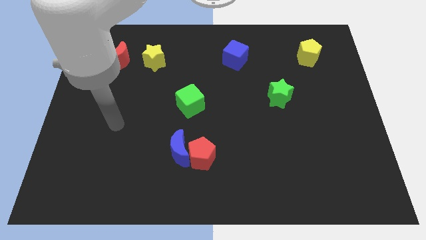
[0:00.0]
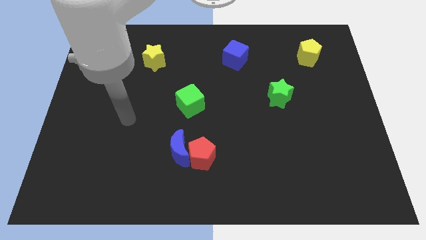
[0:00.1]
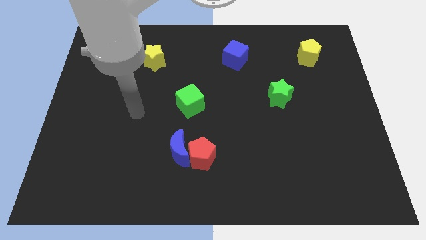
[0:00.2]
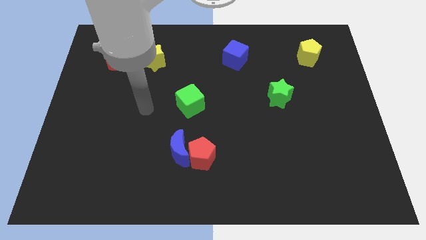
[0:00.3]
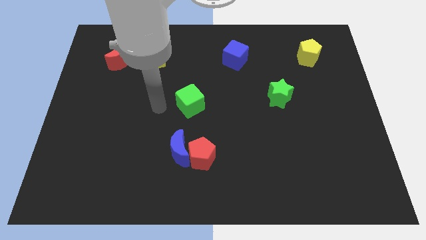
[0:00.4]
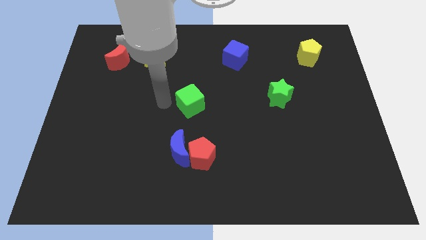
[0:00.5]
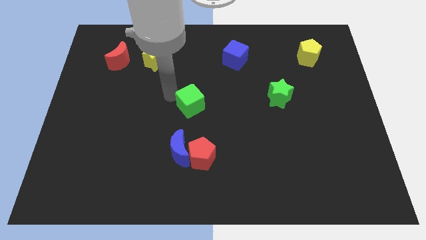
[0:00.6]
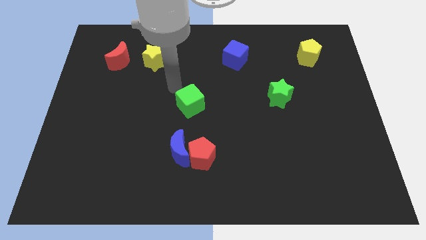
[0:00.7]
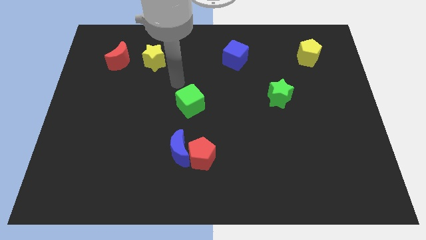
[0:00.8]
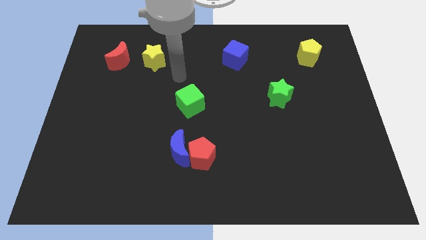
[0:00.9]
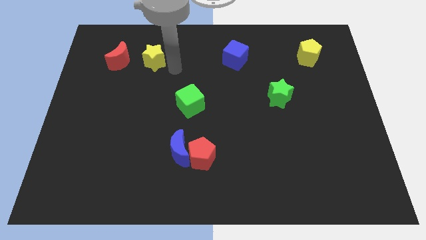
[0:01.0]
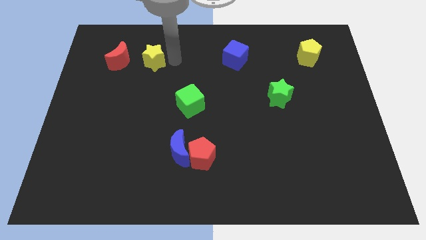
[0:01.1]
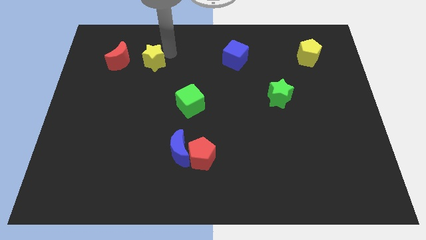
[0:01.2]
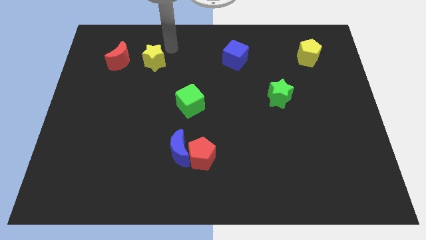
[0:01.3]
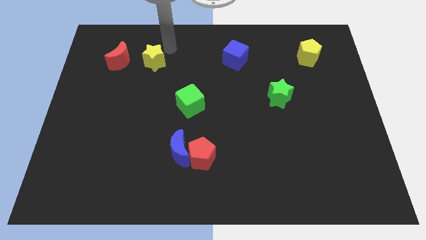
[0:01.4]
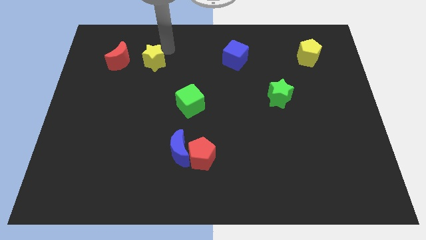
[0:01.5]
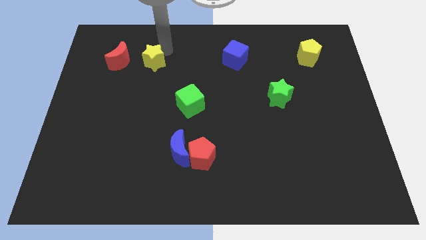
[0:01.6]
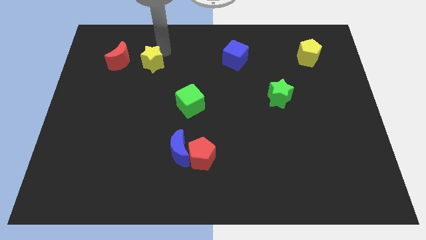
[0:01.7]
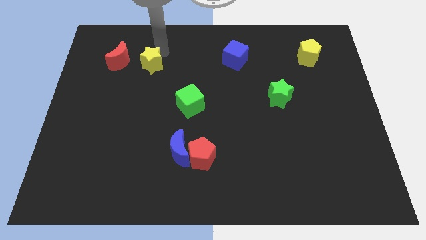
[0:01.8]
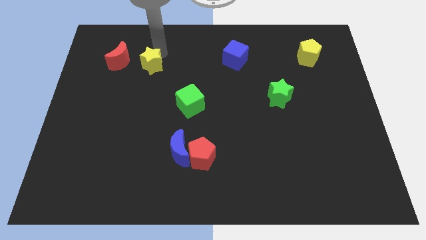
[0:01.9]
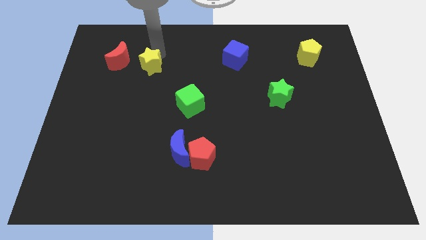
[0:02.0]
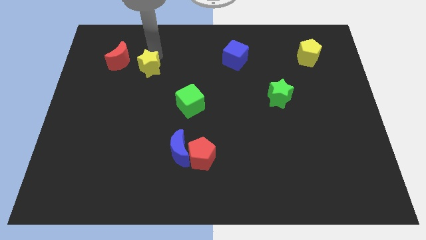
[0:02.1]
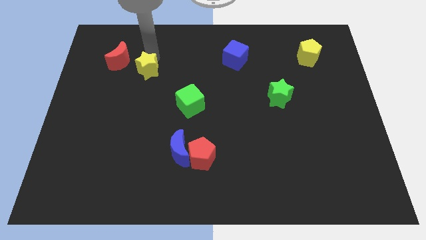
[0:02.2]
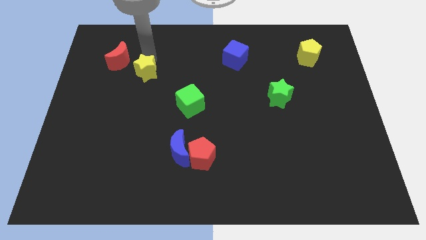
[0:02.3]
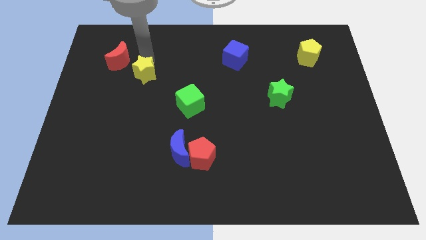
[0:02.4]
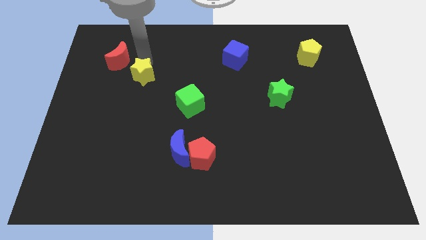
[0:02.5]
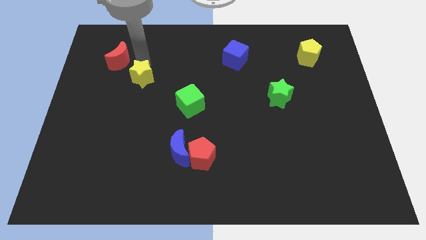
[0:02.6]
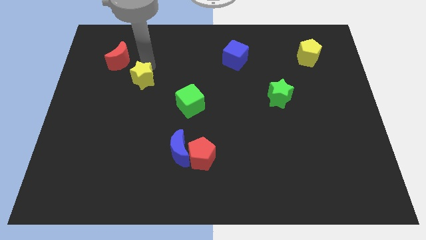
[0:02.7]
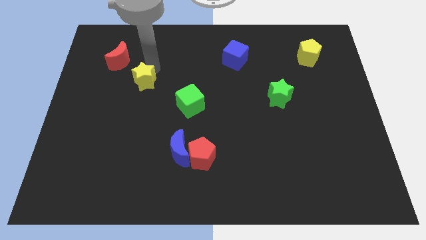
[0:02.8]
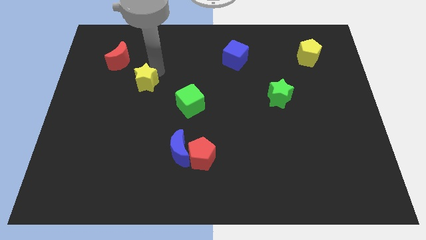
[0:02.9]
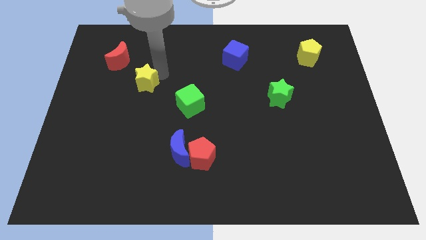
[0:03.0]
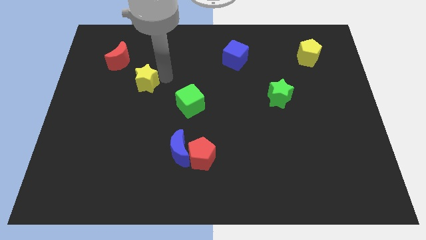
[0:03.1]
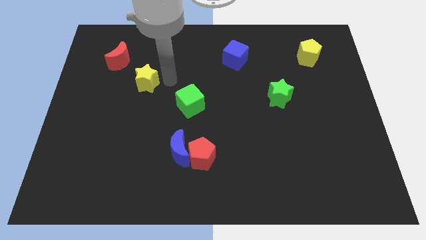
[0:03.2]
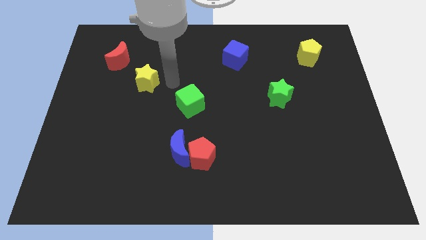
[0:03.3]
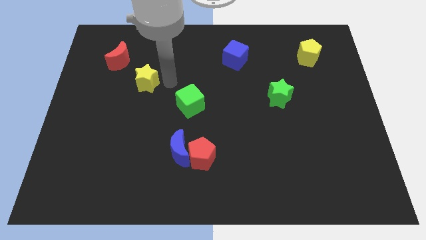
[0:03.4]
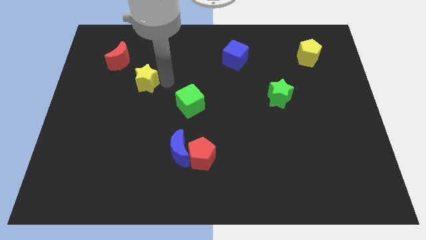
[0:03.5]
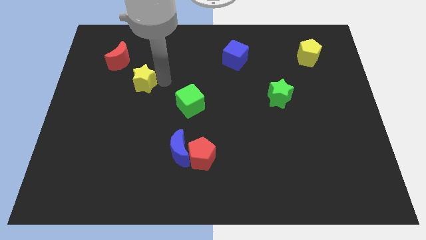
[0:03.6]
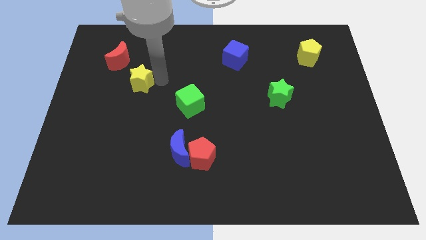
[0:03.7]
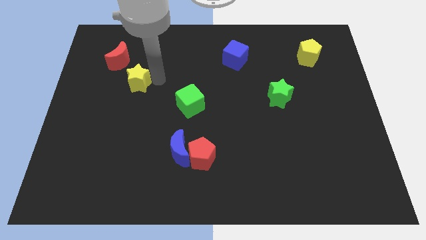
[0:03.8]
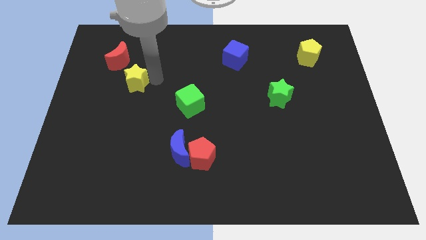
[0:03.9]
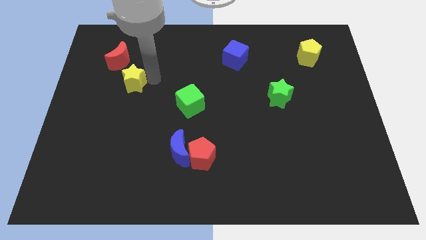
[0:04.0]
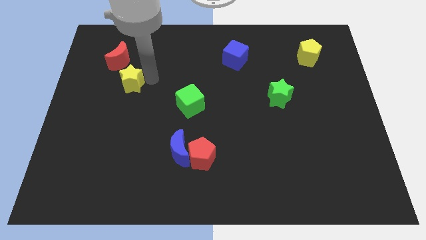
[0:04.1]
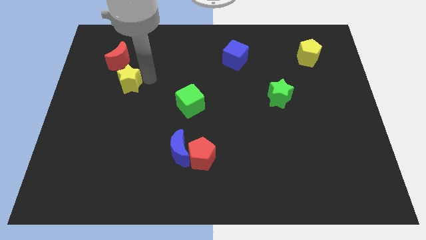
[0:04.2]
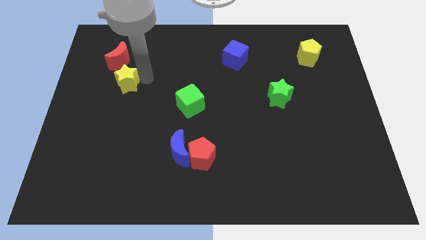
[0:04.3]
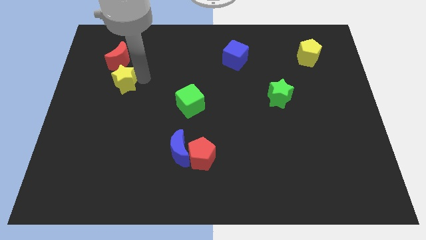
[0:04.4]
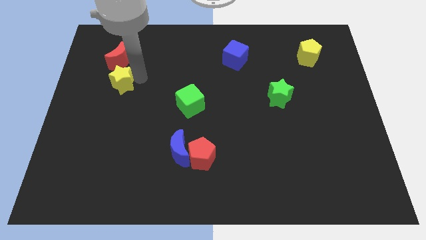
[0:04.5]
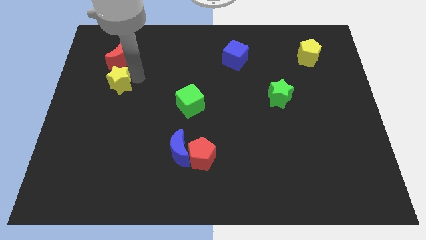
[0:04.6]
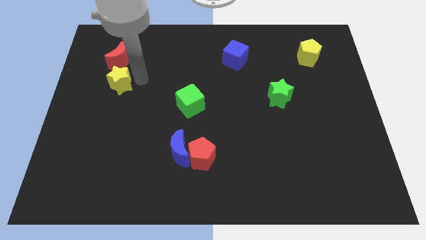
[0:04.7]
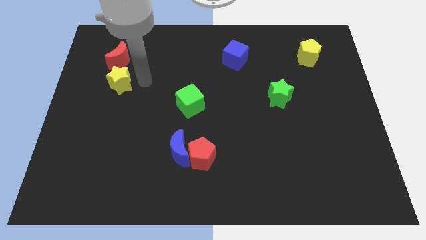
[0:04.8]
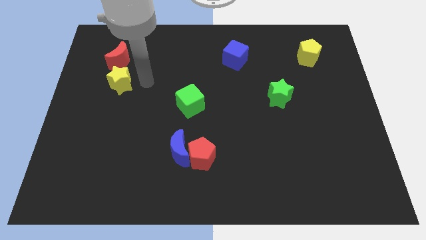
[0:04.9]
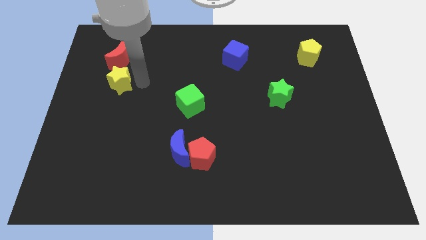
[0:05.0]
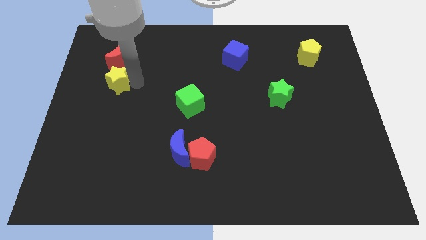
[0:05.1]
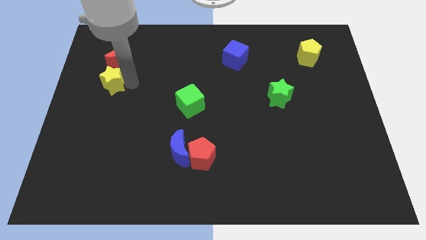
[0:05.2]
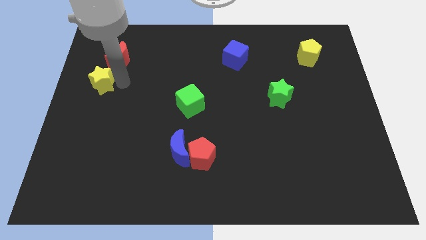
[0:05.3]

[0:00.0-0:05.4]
push the yellow star to the left side of the board

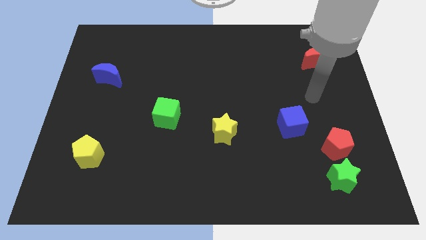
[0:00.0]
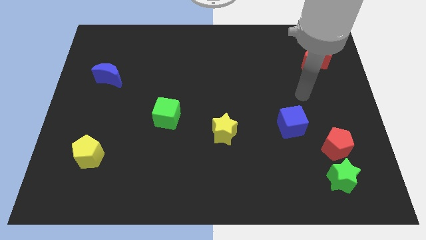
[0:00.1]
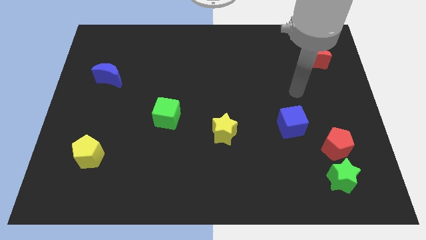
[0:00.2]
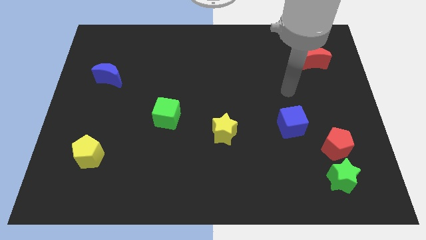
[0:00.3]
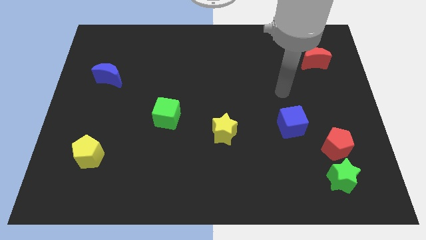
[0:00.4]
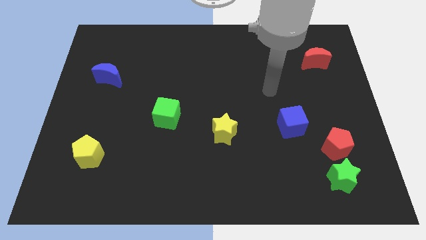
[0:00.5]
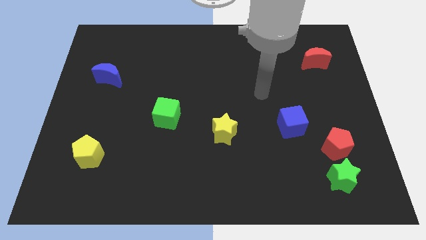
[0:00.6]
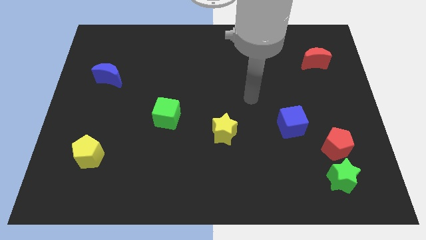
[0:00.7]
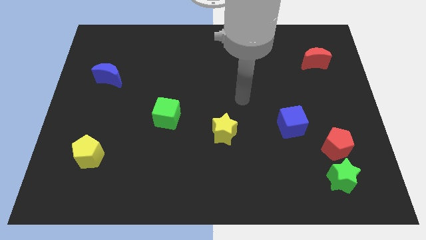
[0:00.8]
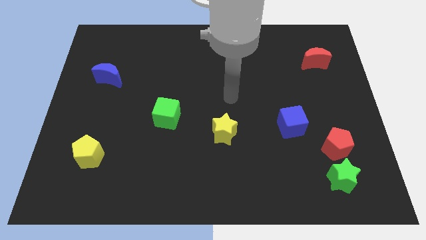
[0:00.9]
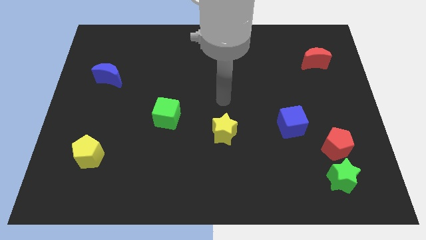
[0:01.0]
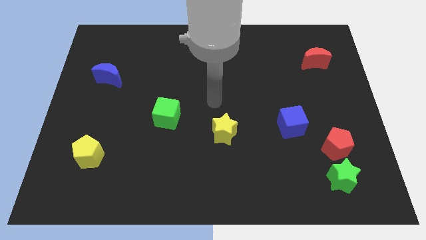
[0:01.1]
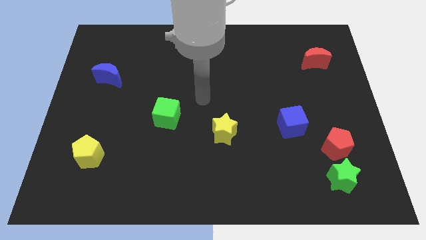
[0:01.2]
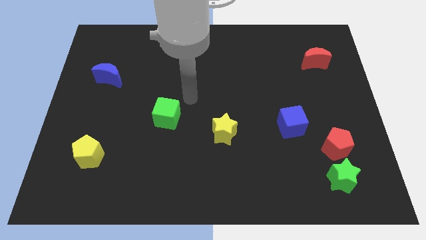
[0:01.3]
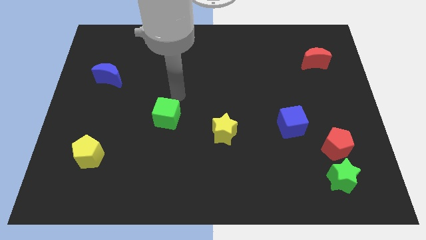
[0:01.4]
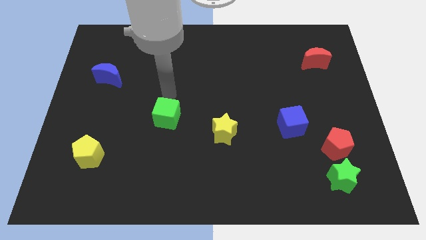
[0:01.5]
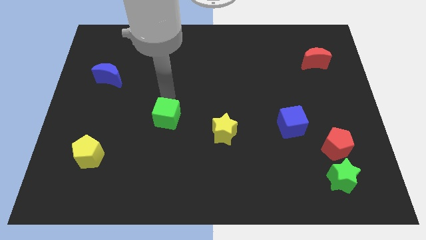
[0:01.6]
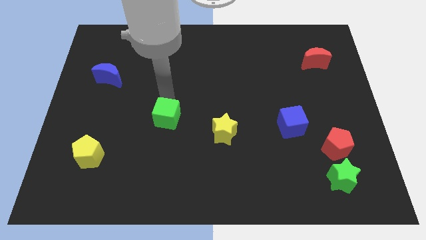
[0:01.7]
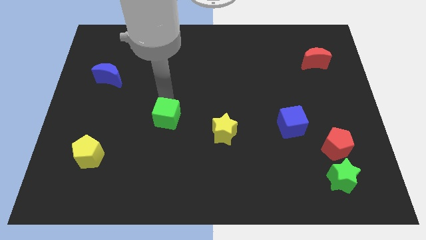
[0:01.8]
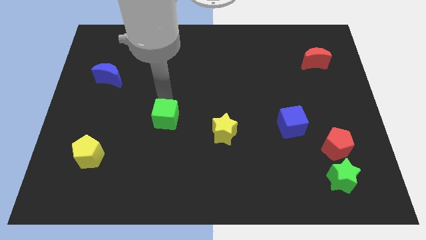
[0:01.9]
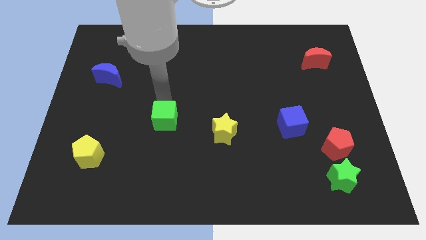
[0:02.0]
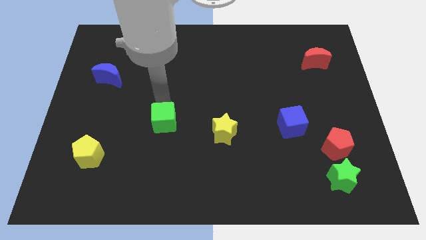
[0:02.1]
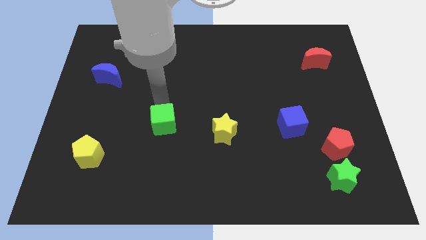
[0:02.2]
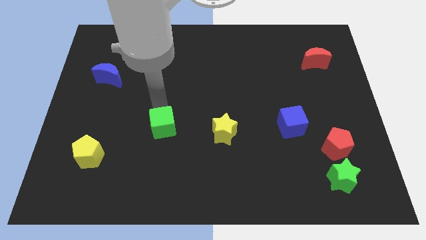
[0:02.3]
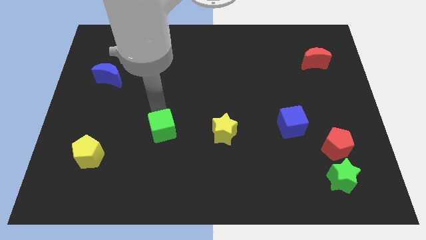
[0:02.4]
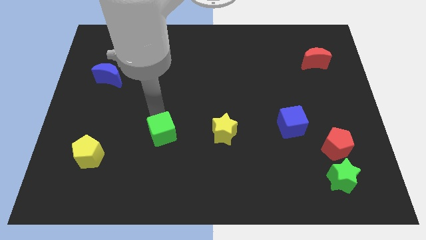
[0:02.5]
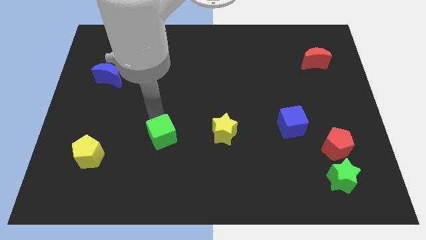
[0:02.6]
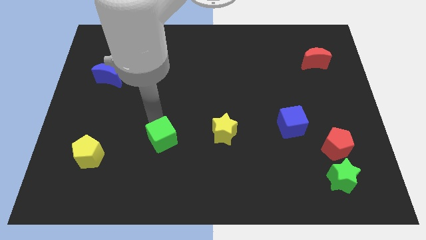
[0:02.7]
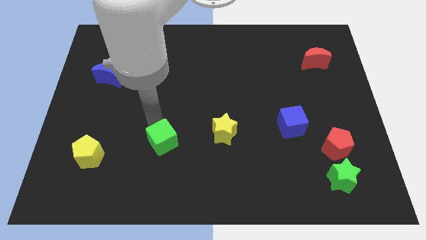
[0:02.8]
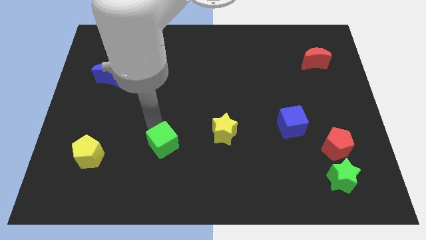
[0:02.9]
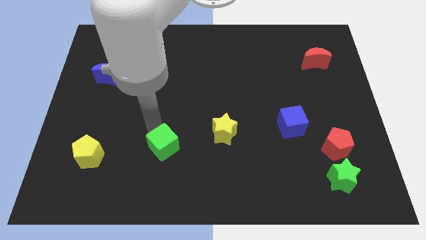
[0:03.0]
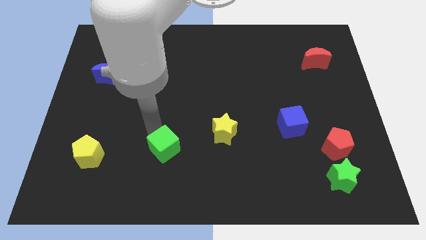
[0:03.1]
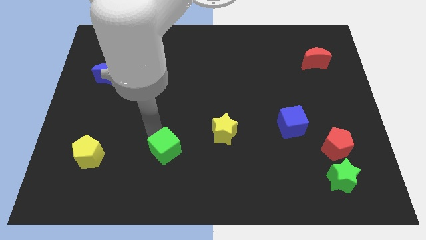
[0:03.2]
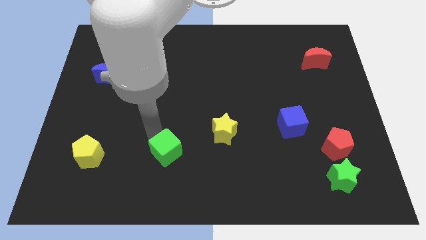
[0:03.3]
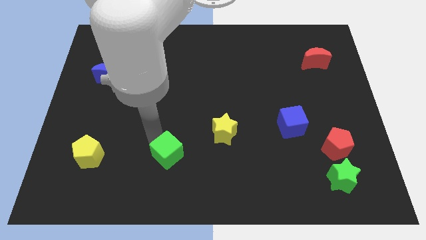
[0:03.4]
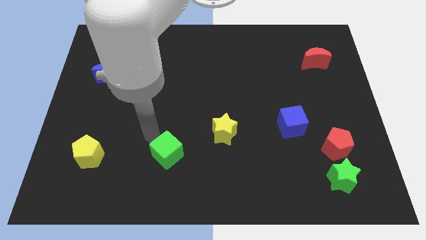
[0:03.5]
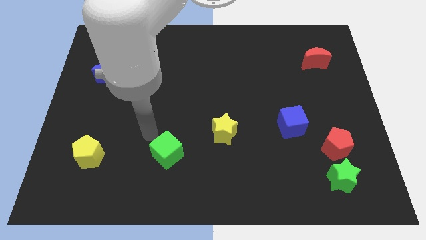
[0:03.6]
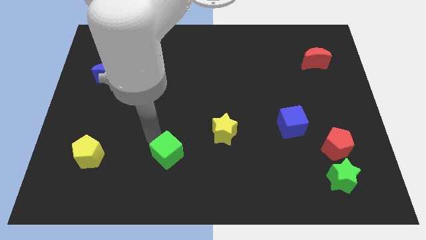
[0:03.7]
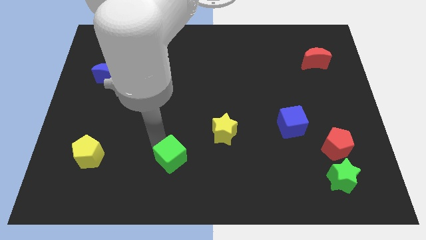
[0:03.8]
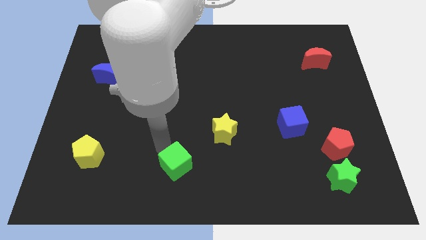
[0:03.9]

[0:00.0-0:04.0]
push the green cube to the bottom
